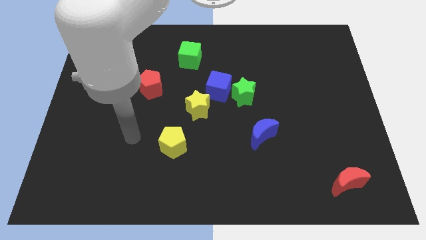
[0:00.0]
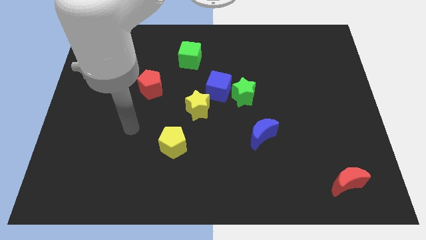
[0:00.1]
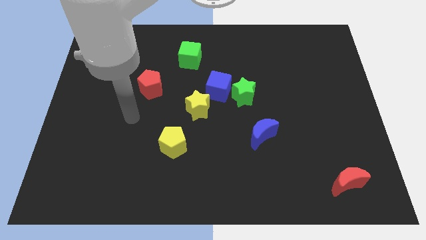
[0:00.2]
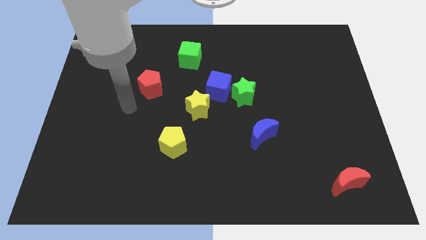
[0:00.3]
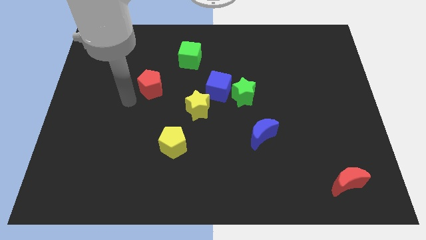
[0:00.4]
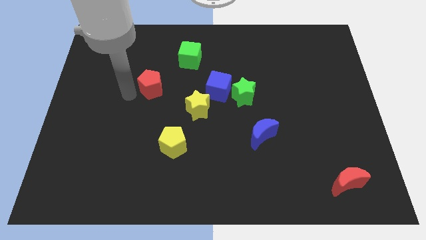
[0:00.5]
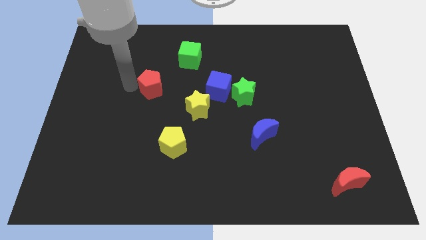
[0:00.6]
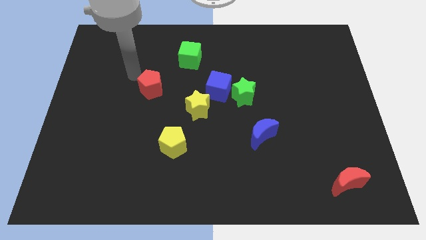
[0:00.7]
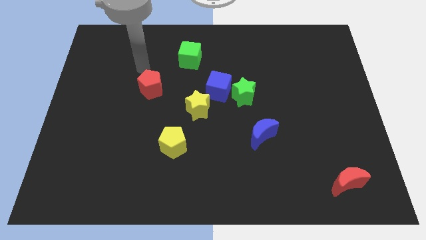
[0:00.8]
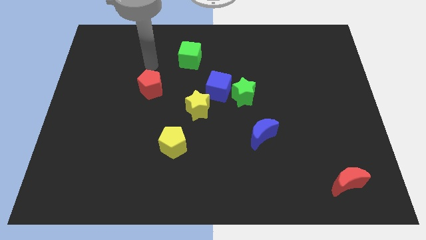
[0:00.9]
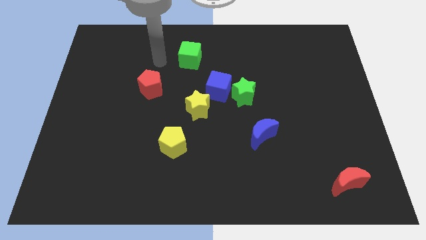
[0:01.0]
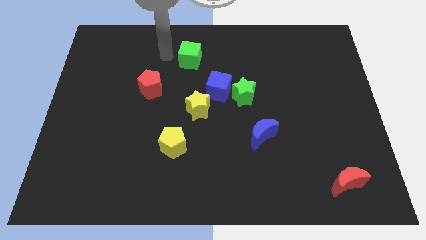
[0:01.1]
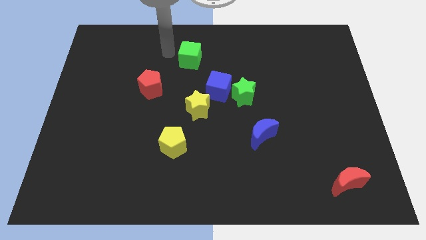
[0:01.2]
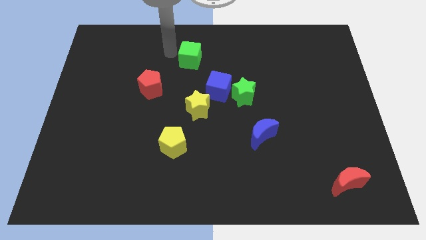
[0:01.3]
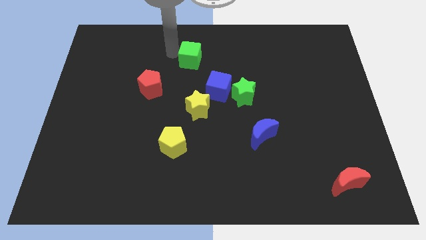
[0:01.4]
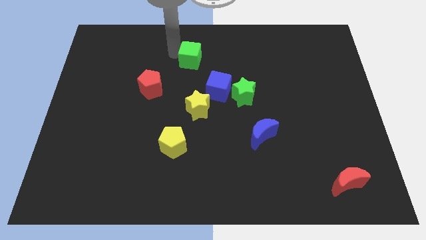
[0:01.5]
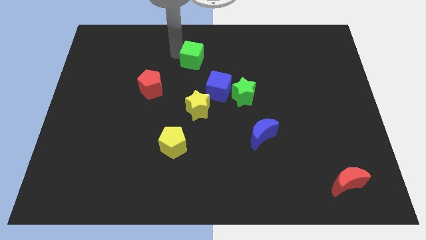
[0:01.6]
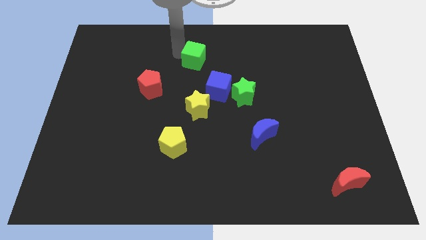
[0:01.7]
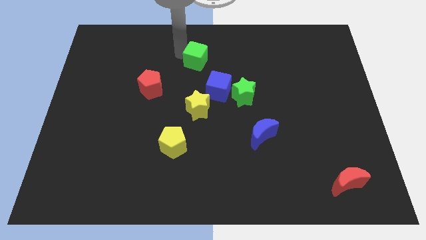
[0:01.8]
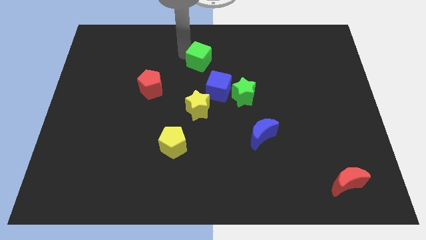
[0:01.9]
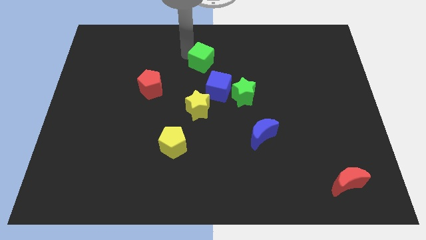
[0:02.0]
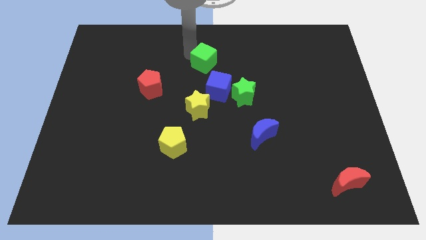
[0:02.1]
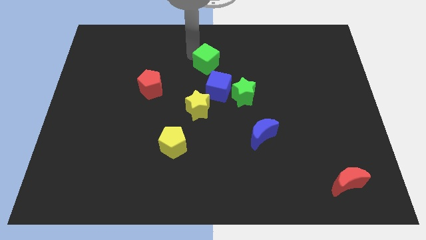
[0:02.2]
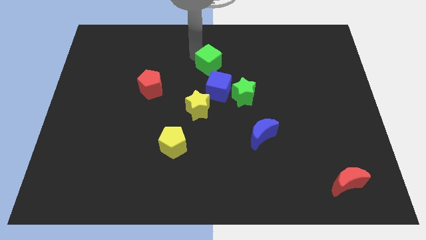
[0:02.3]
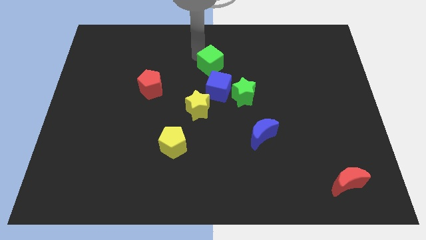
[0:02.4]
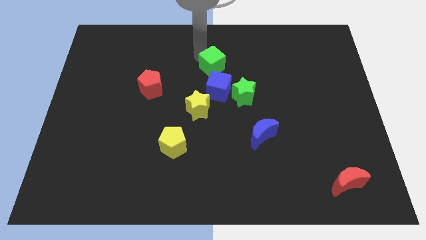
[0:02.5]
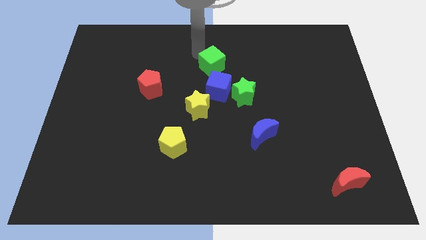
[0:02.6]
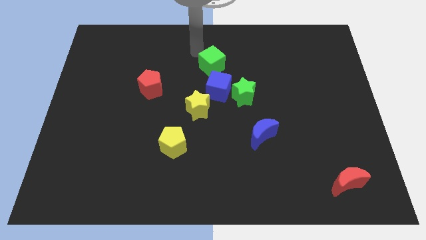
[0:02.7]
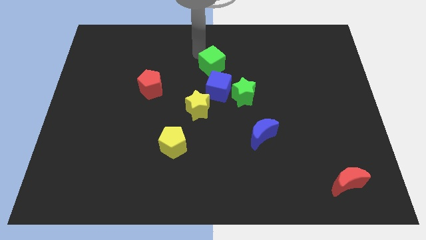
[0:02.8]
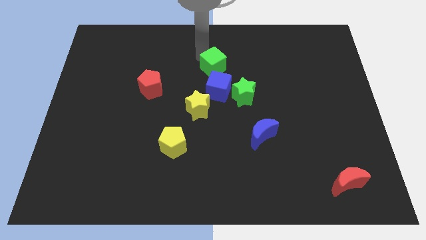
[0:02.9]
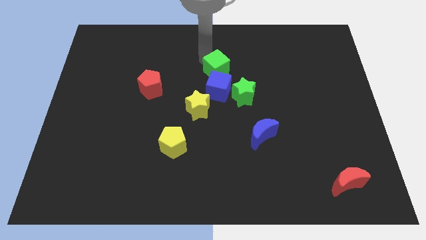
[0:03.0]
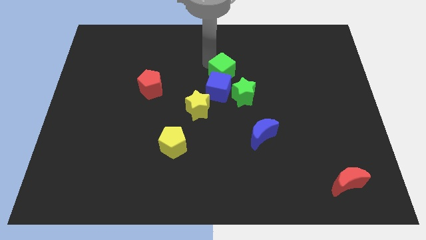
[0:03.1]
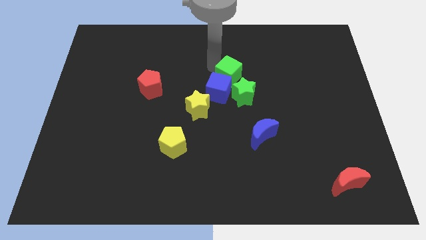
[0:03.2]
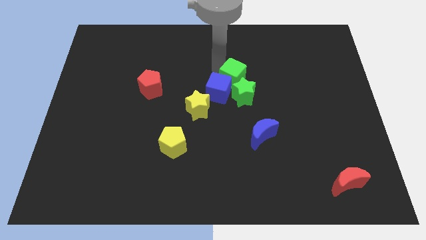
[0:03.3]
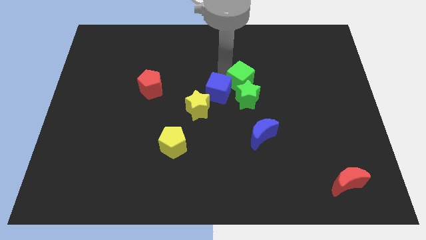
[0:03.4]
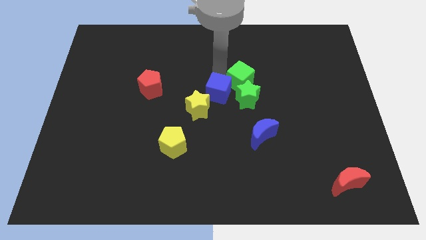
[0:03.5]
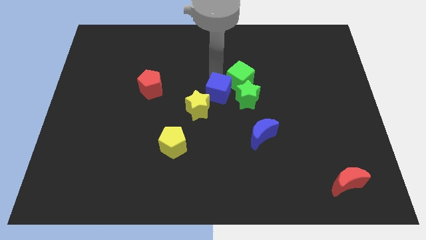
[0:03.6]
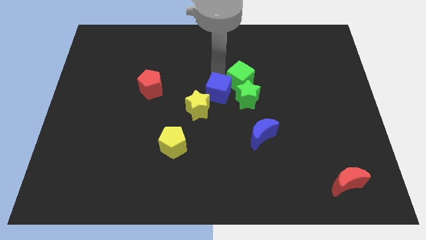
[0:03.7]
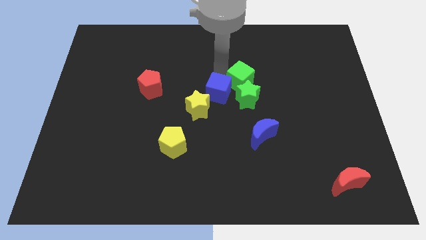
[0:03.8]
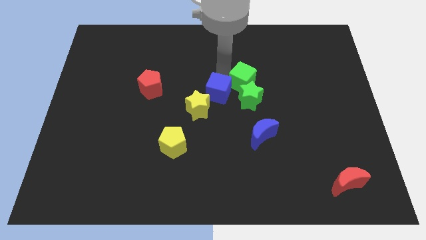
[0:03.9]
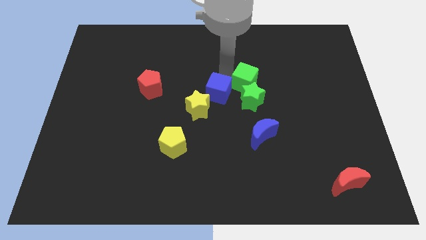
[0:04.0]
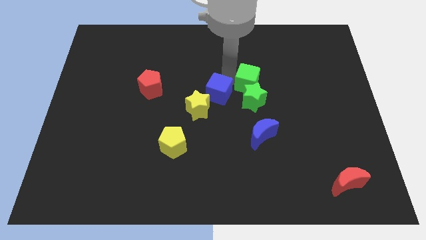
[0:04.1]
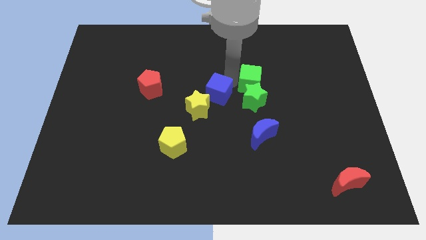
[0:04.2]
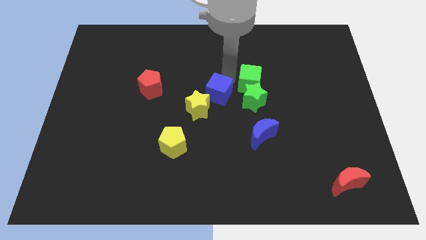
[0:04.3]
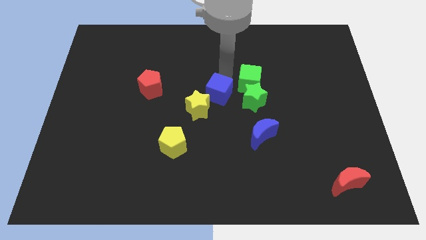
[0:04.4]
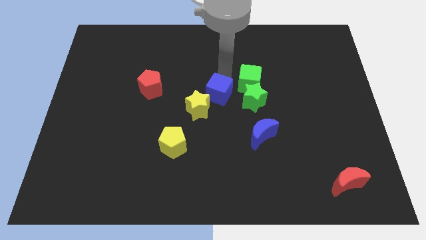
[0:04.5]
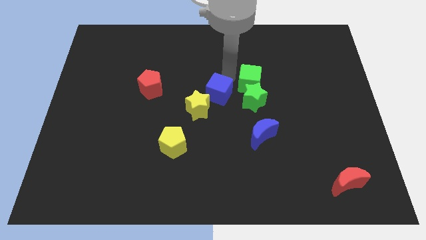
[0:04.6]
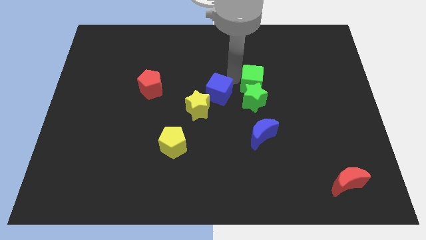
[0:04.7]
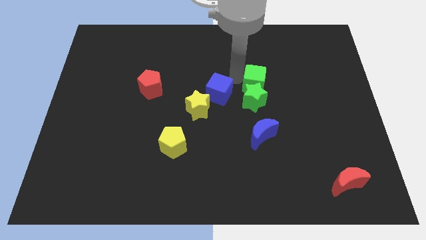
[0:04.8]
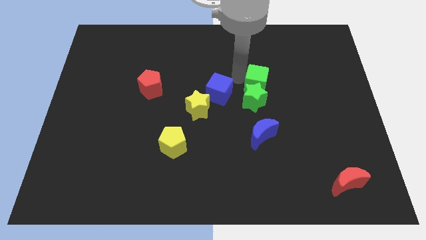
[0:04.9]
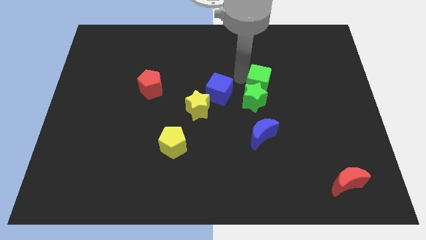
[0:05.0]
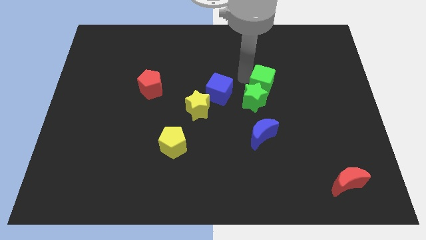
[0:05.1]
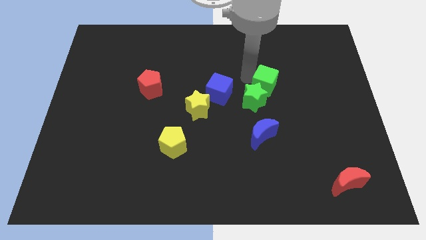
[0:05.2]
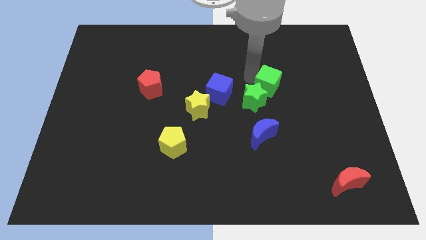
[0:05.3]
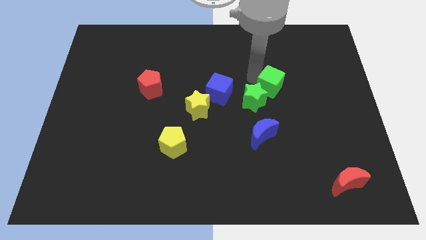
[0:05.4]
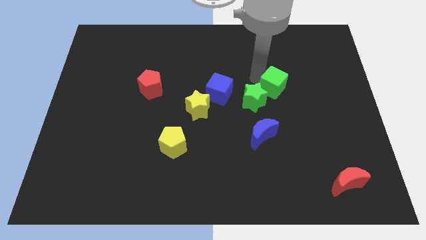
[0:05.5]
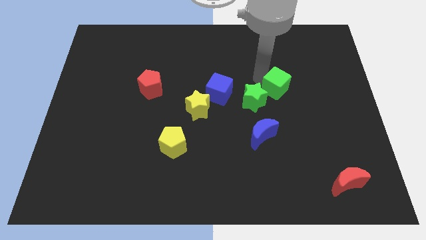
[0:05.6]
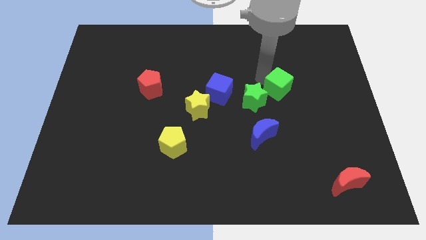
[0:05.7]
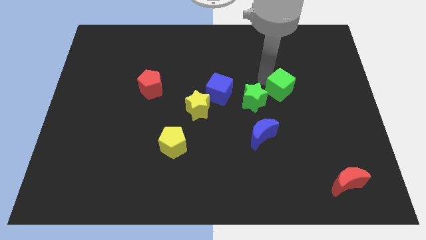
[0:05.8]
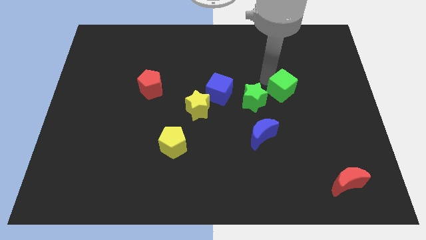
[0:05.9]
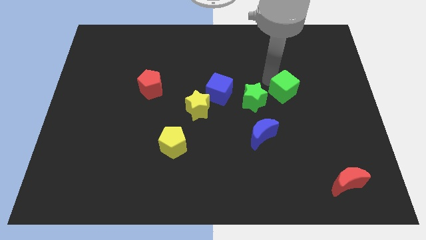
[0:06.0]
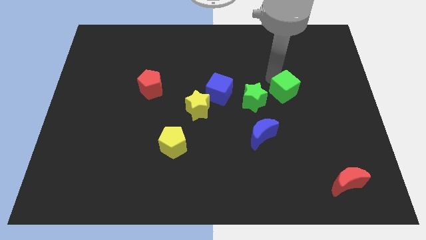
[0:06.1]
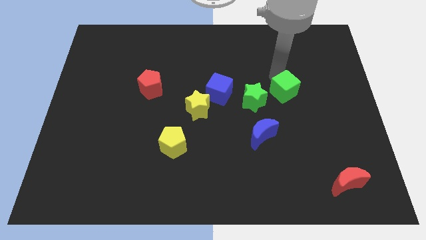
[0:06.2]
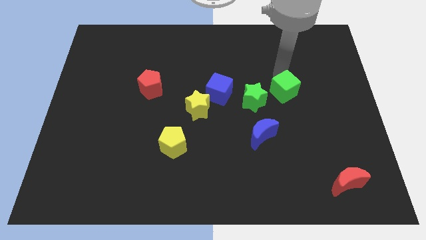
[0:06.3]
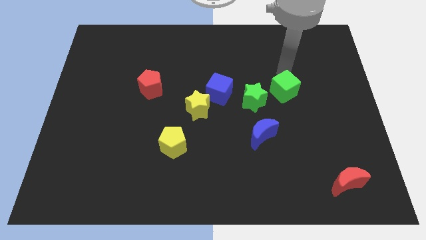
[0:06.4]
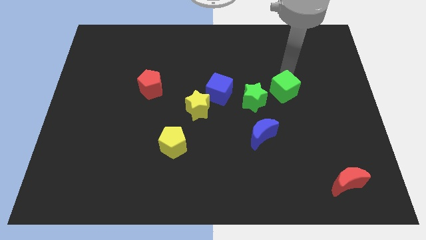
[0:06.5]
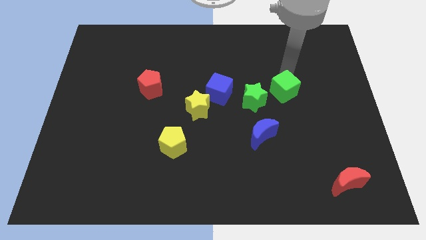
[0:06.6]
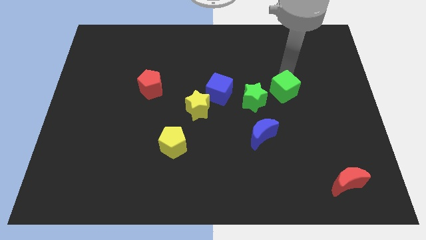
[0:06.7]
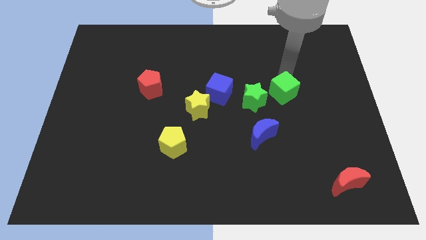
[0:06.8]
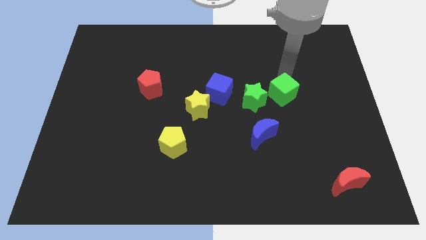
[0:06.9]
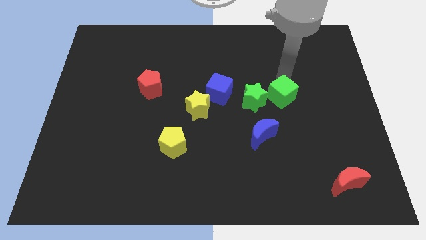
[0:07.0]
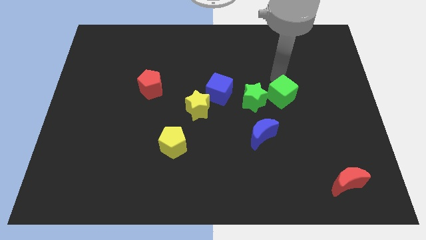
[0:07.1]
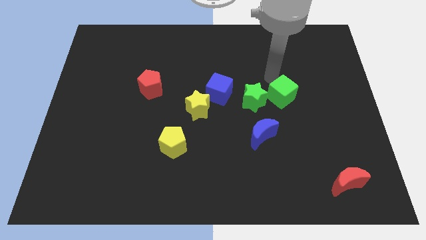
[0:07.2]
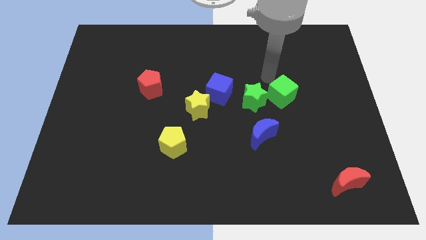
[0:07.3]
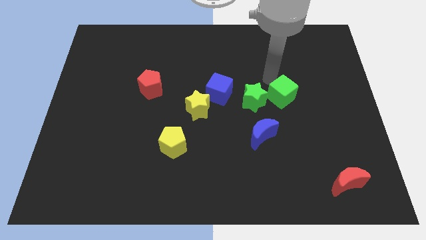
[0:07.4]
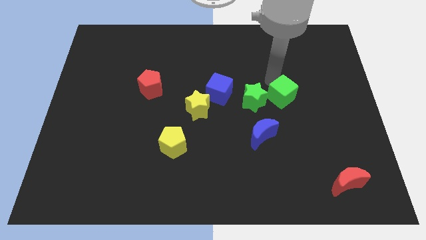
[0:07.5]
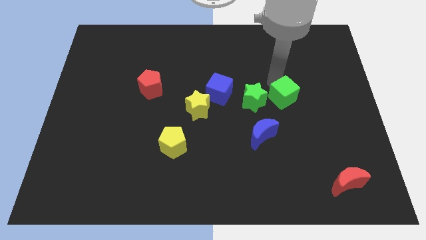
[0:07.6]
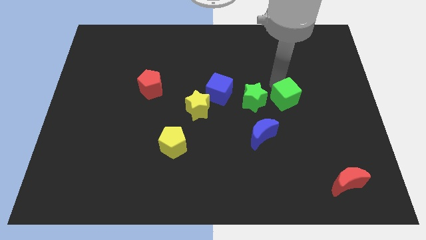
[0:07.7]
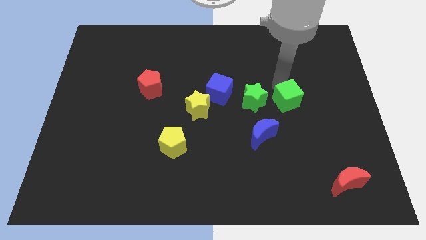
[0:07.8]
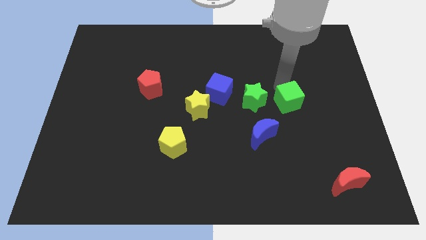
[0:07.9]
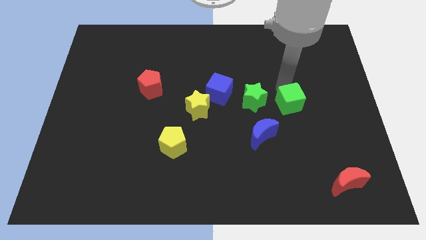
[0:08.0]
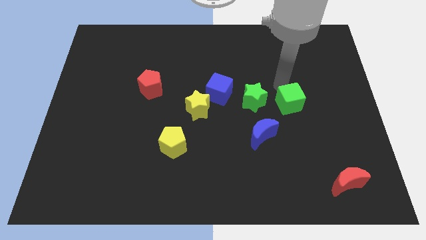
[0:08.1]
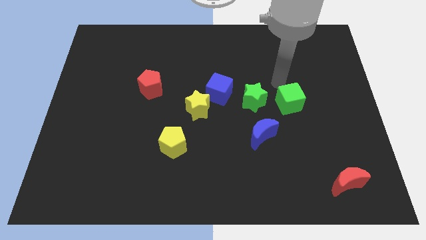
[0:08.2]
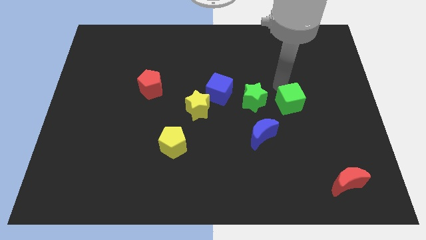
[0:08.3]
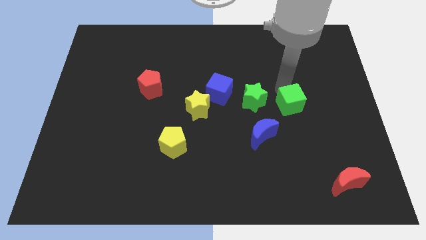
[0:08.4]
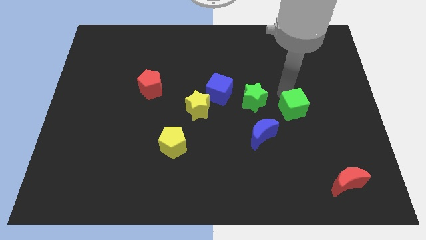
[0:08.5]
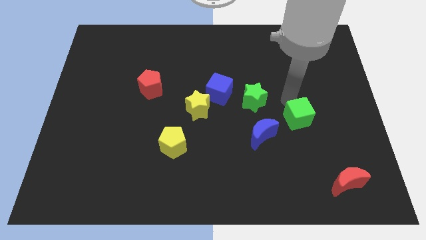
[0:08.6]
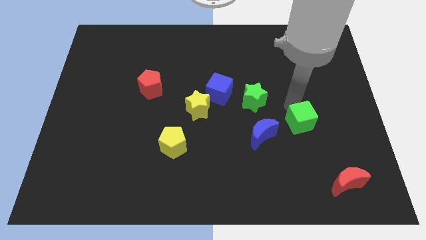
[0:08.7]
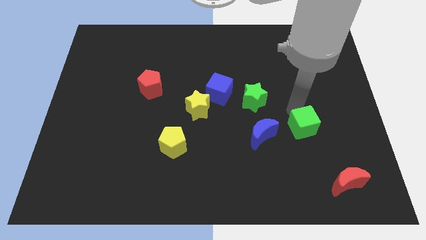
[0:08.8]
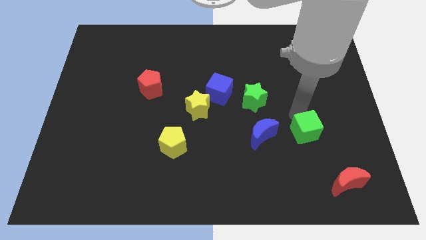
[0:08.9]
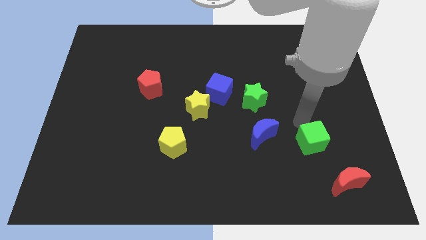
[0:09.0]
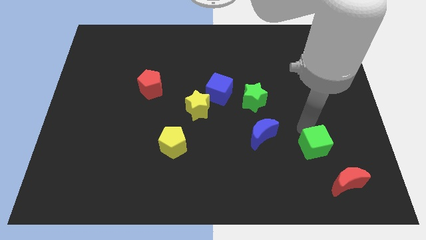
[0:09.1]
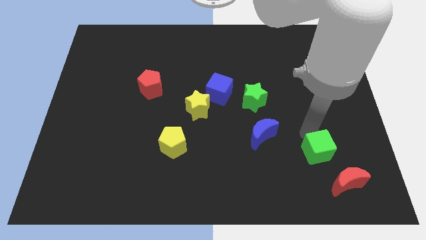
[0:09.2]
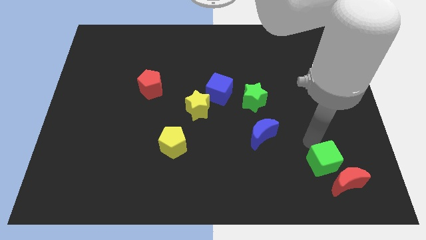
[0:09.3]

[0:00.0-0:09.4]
move the green cube close to the red moon
